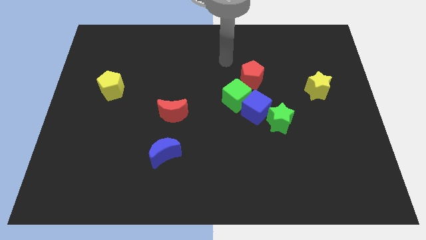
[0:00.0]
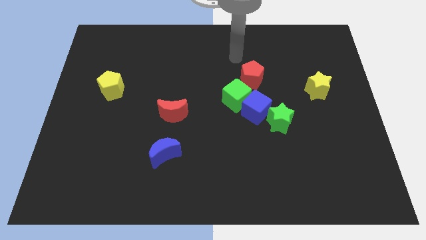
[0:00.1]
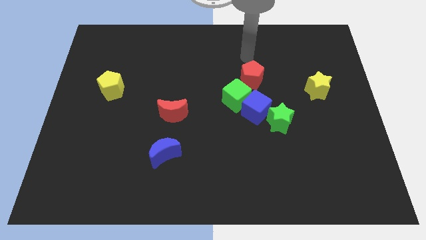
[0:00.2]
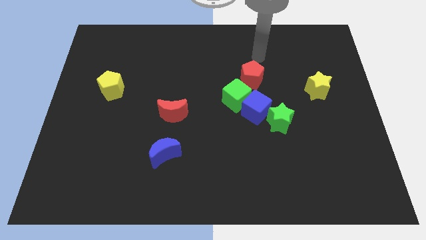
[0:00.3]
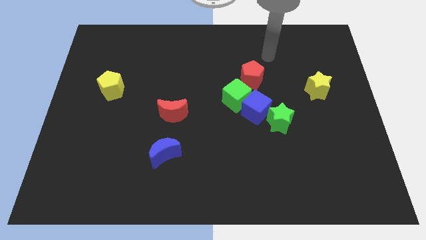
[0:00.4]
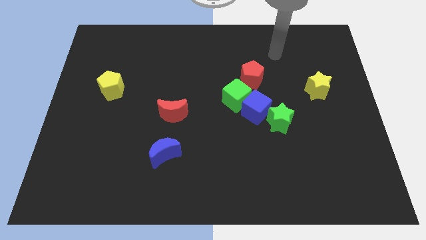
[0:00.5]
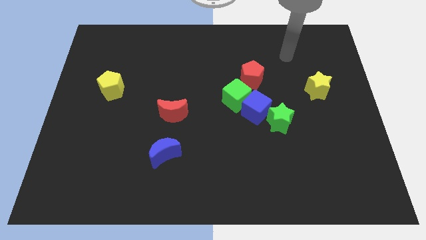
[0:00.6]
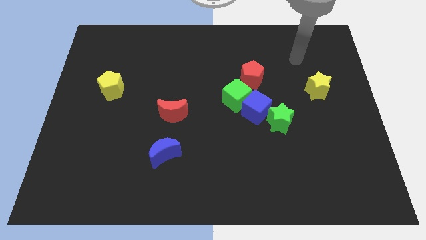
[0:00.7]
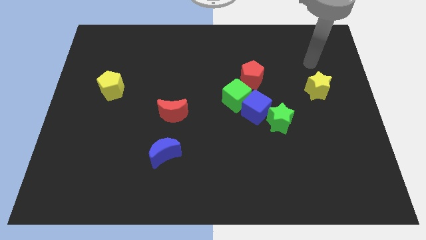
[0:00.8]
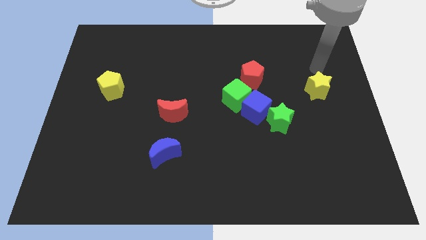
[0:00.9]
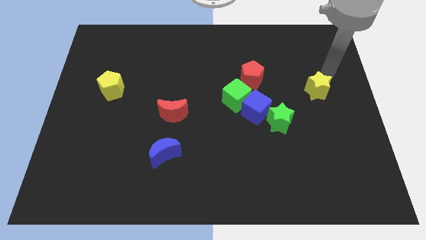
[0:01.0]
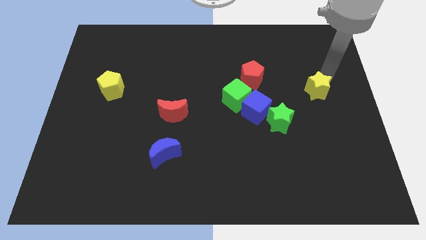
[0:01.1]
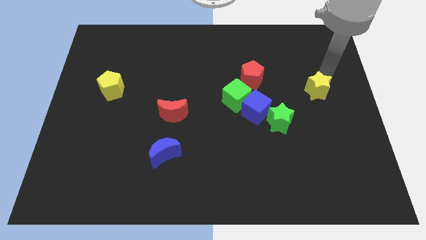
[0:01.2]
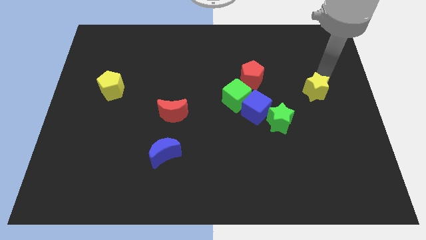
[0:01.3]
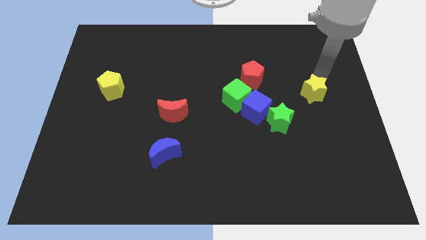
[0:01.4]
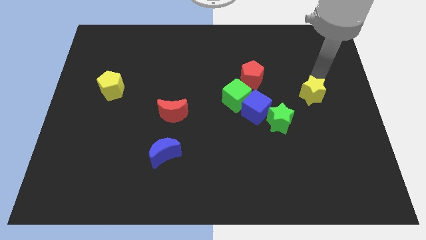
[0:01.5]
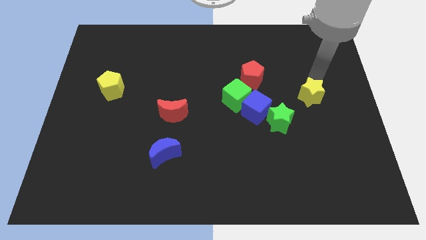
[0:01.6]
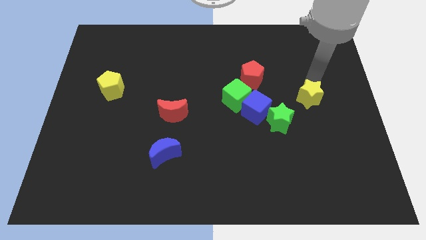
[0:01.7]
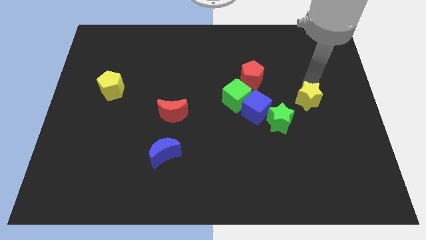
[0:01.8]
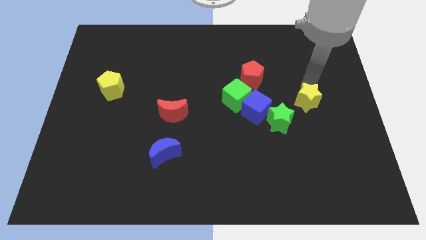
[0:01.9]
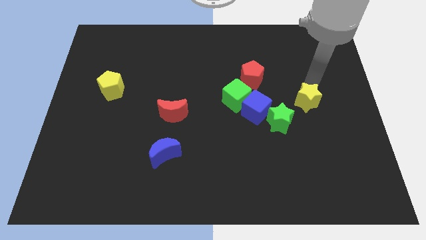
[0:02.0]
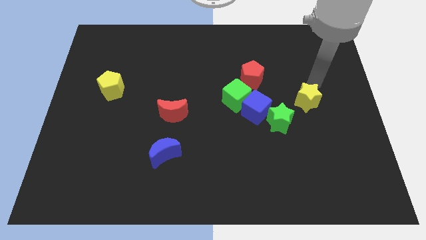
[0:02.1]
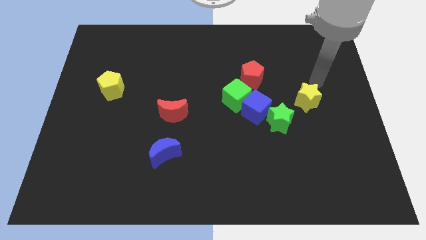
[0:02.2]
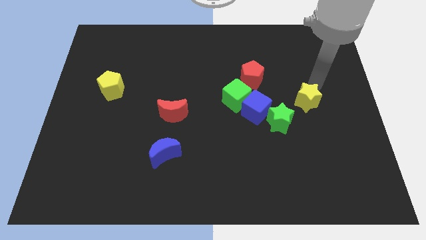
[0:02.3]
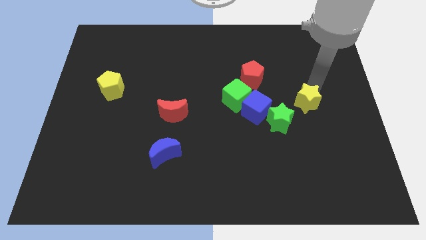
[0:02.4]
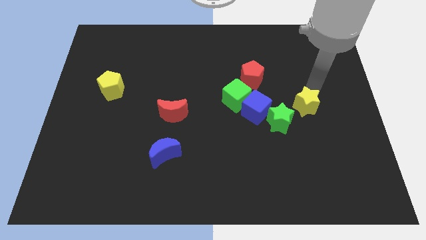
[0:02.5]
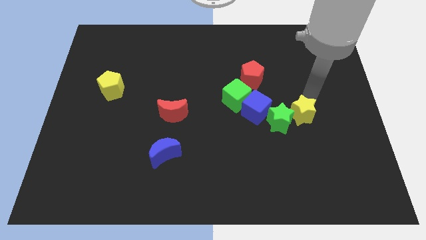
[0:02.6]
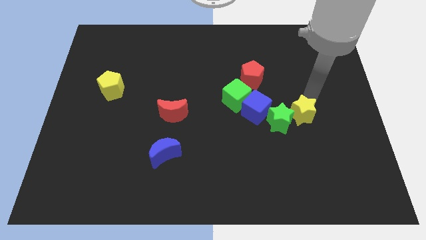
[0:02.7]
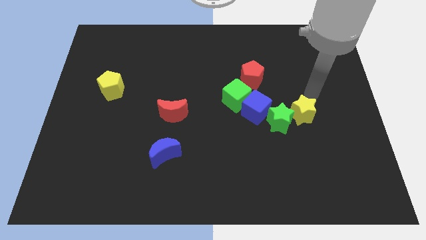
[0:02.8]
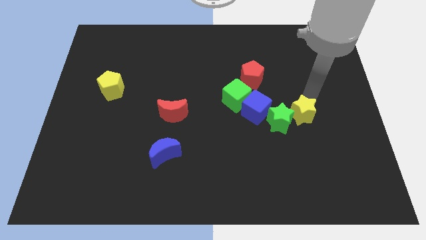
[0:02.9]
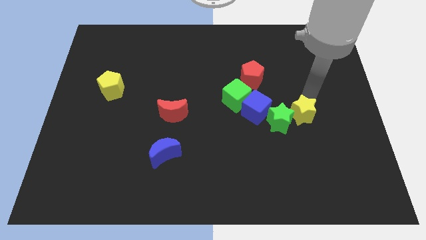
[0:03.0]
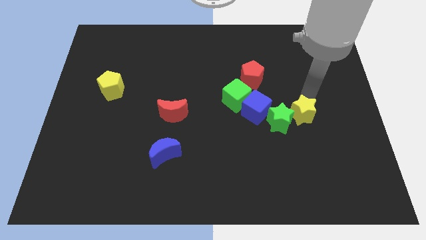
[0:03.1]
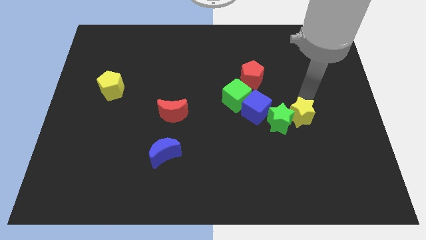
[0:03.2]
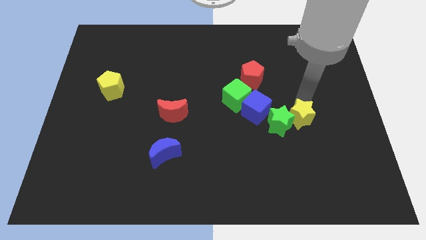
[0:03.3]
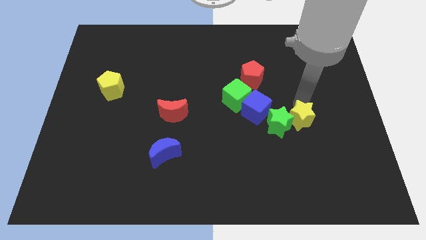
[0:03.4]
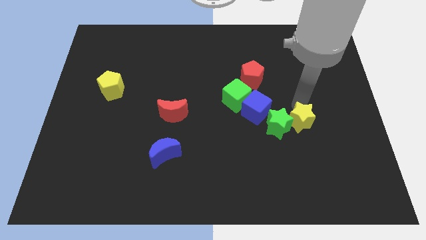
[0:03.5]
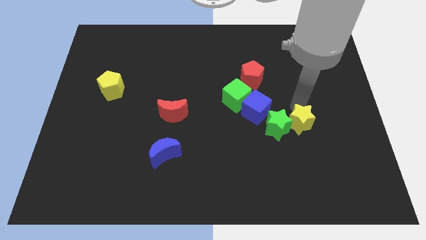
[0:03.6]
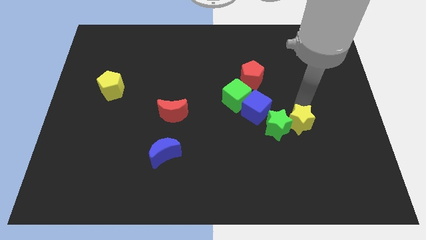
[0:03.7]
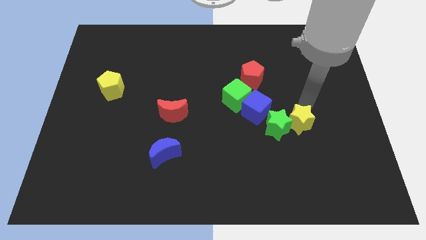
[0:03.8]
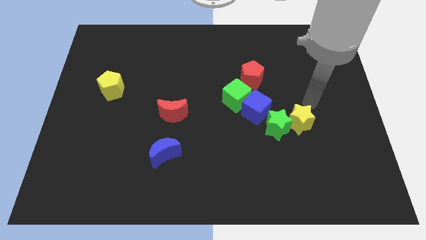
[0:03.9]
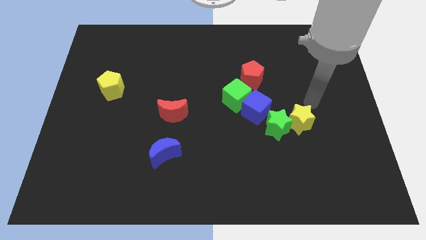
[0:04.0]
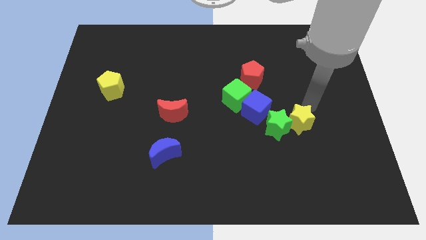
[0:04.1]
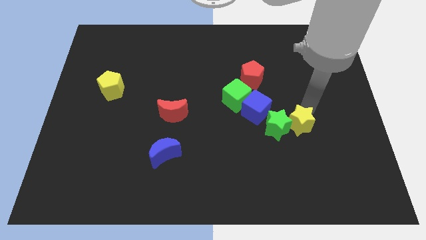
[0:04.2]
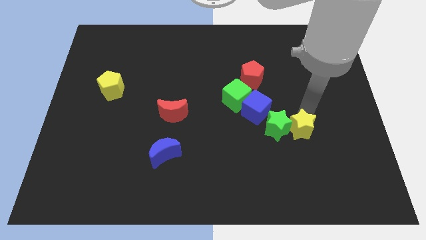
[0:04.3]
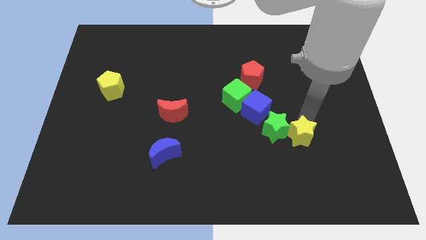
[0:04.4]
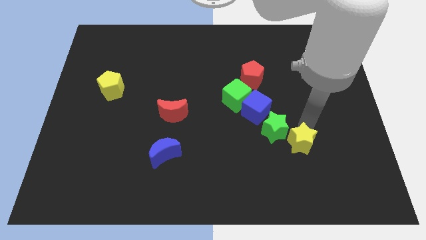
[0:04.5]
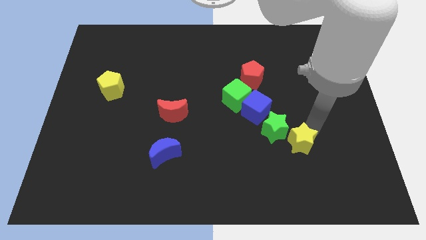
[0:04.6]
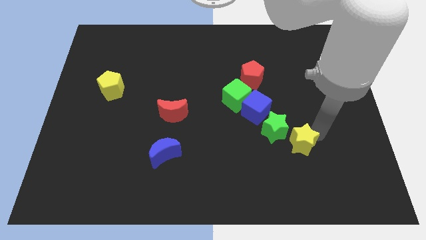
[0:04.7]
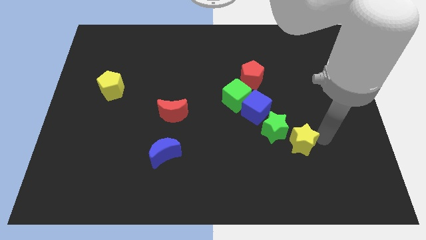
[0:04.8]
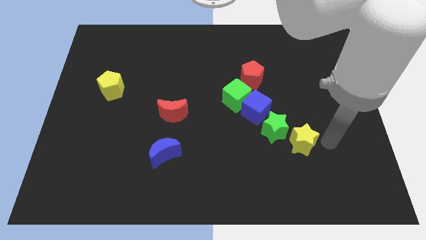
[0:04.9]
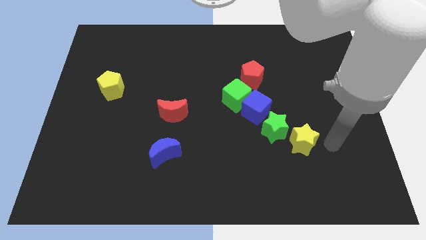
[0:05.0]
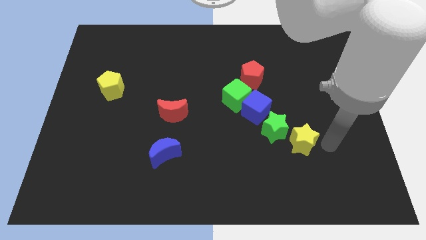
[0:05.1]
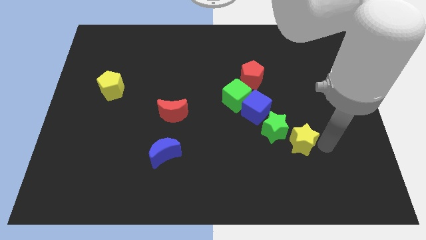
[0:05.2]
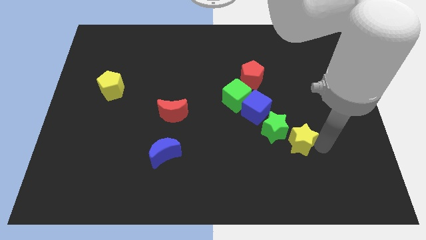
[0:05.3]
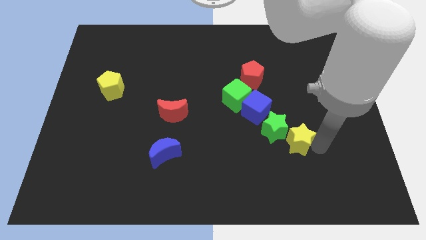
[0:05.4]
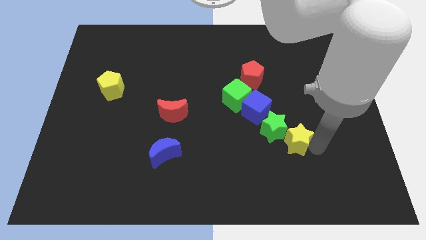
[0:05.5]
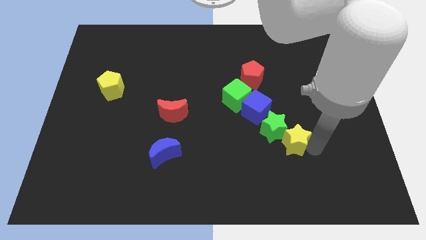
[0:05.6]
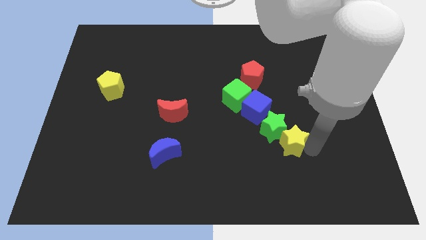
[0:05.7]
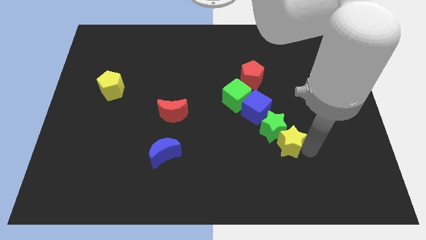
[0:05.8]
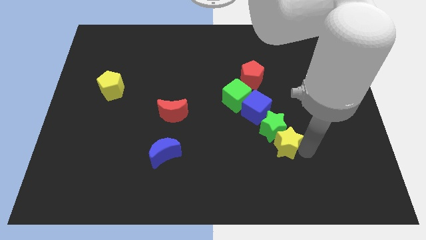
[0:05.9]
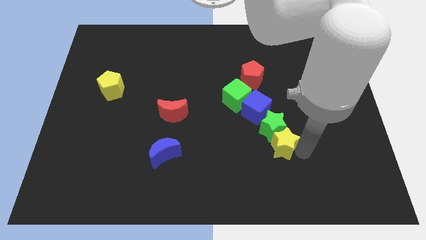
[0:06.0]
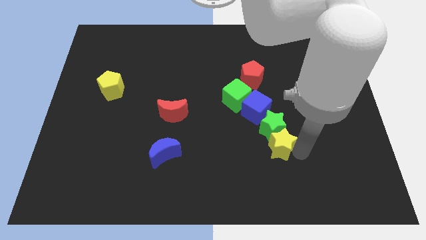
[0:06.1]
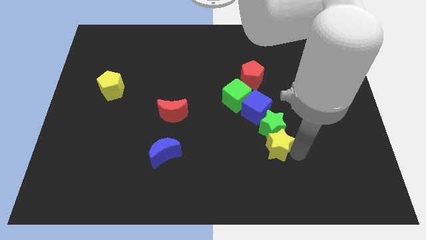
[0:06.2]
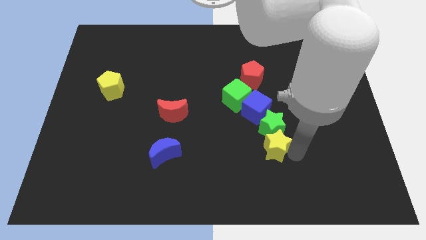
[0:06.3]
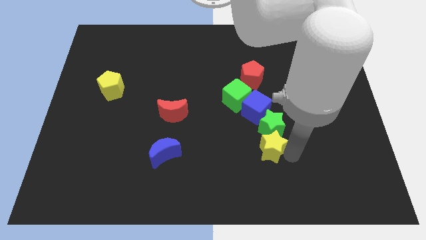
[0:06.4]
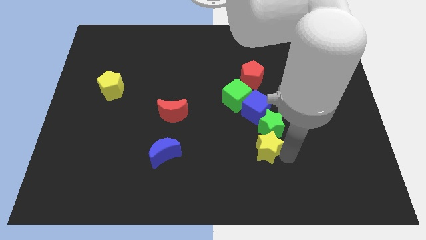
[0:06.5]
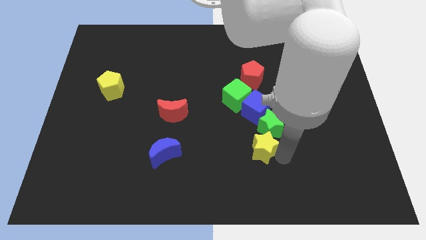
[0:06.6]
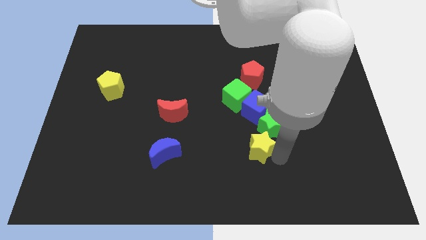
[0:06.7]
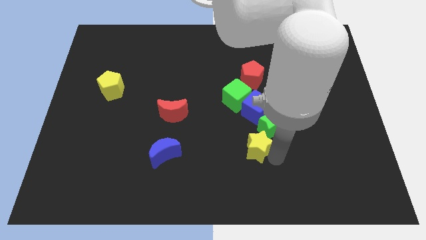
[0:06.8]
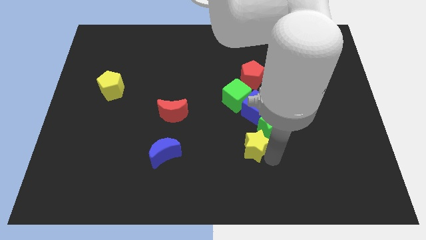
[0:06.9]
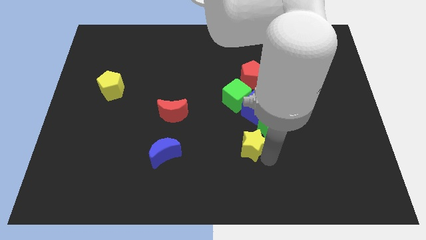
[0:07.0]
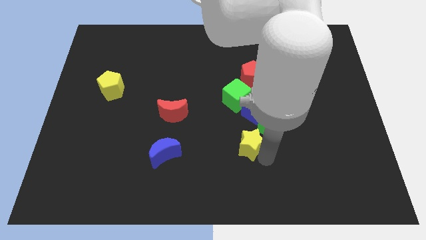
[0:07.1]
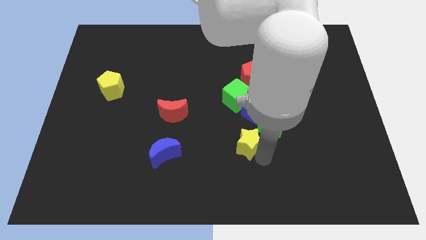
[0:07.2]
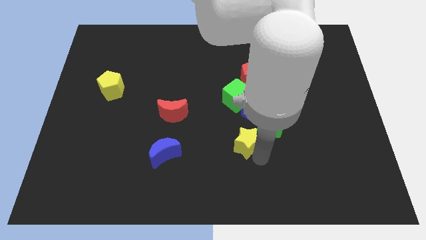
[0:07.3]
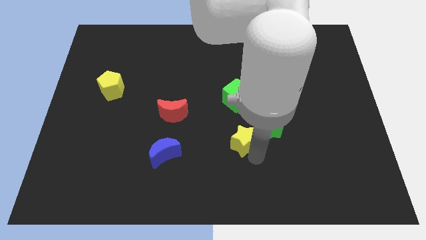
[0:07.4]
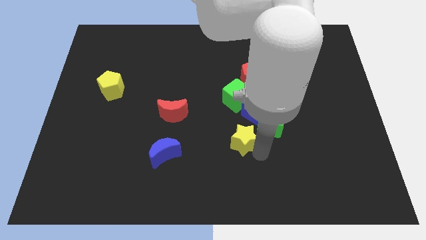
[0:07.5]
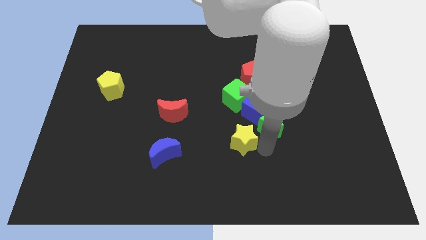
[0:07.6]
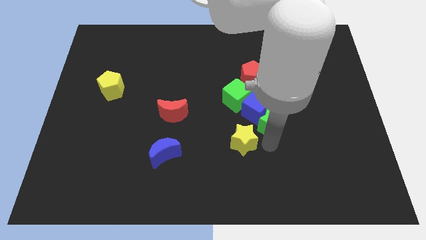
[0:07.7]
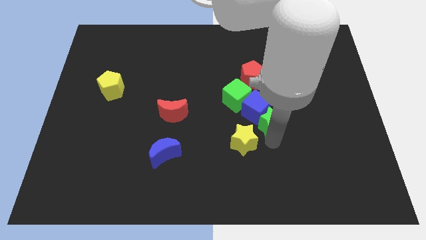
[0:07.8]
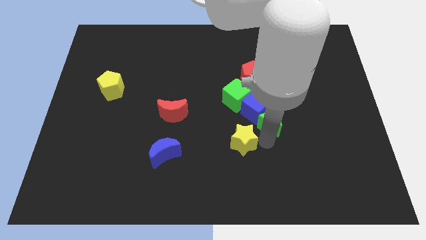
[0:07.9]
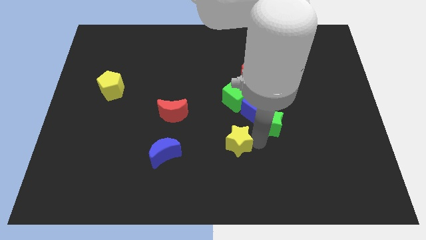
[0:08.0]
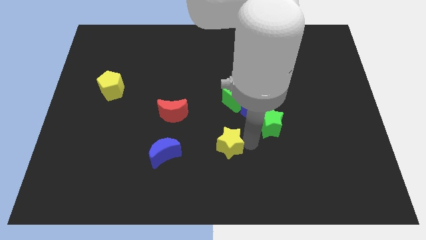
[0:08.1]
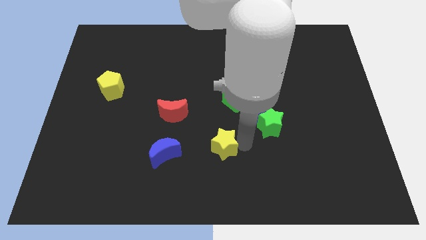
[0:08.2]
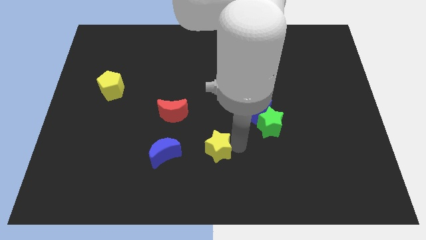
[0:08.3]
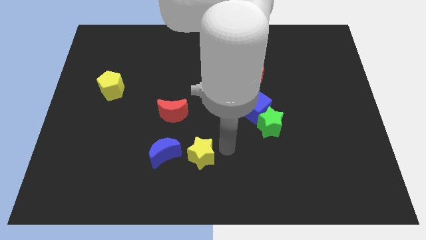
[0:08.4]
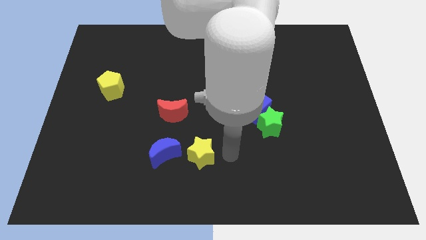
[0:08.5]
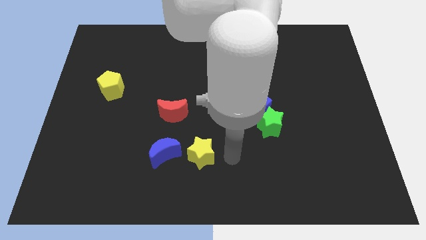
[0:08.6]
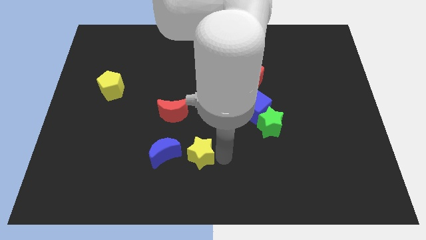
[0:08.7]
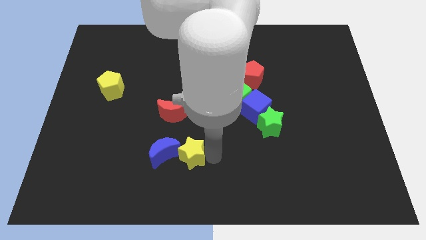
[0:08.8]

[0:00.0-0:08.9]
move the yellow star towards the blue moon
